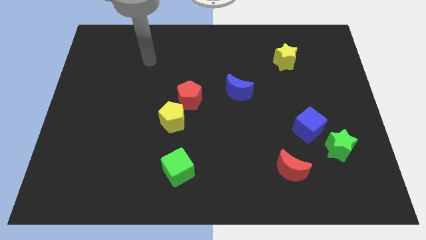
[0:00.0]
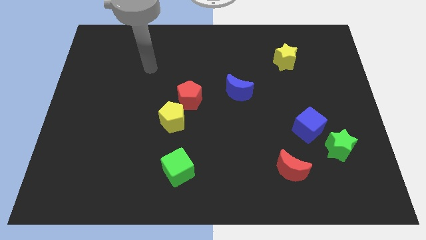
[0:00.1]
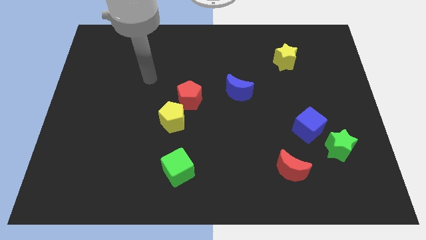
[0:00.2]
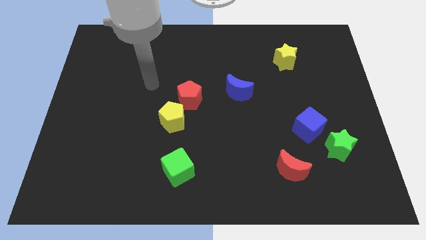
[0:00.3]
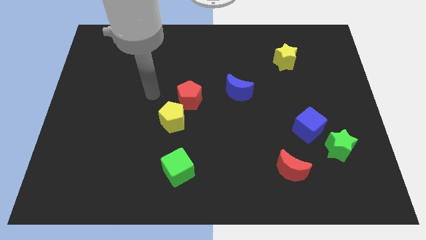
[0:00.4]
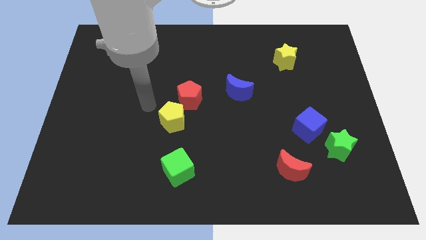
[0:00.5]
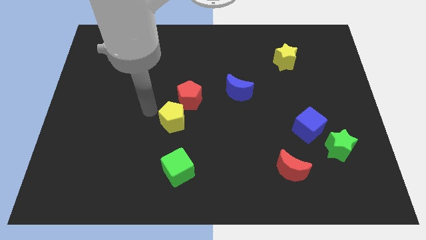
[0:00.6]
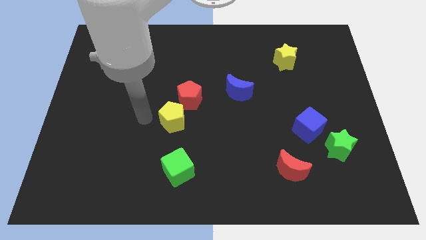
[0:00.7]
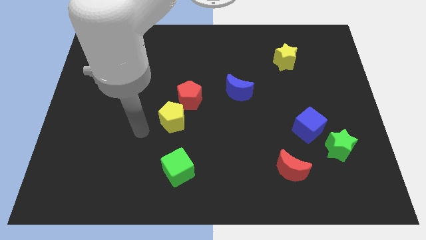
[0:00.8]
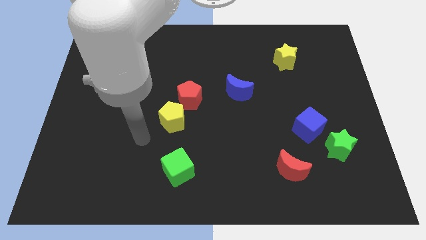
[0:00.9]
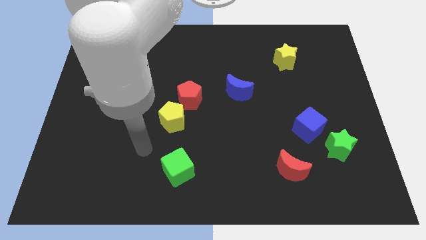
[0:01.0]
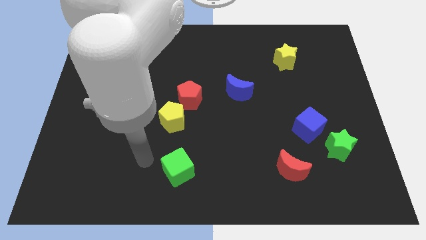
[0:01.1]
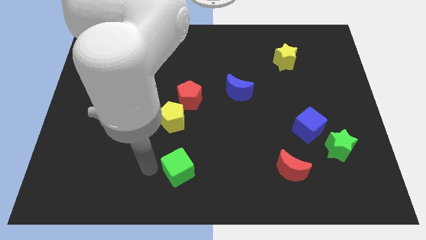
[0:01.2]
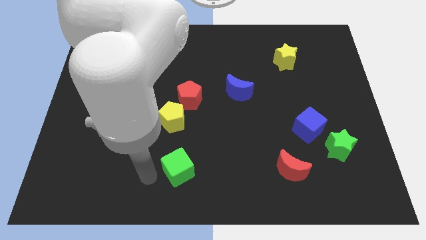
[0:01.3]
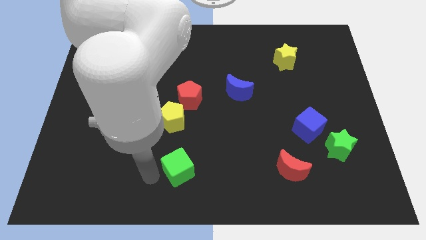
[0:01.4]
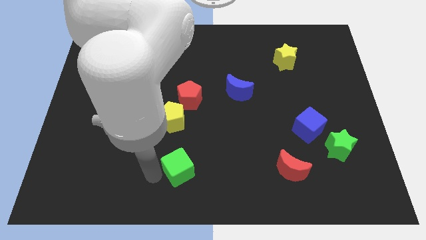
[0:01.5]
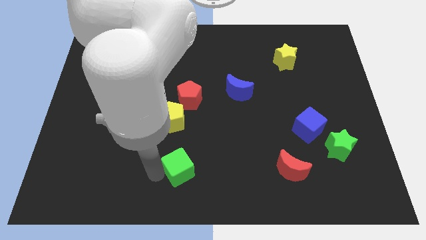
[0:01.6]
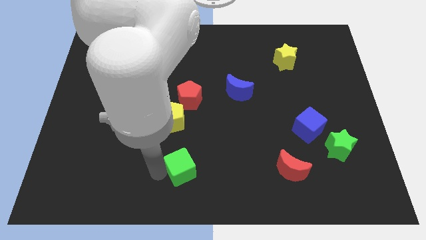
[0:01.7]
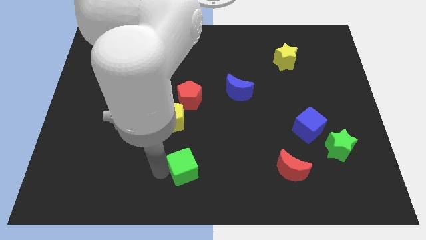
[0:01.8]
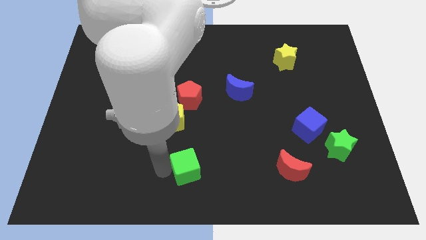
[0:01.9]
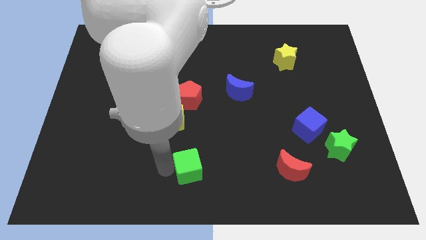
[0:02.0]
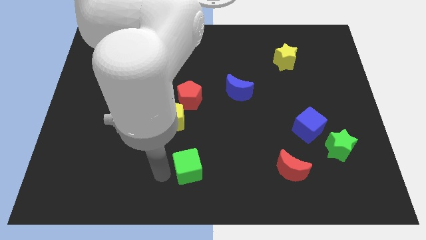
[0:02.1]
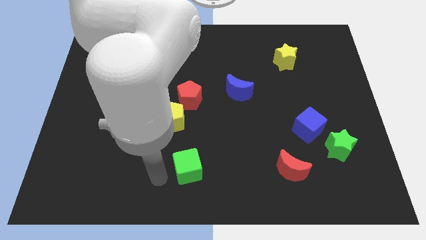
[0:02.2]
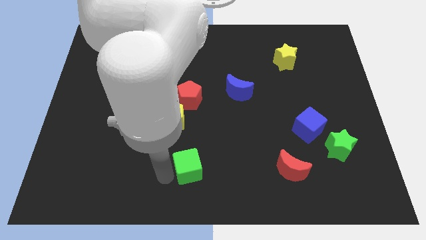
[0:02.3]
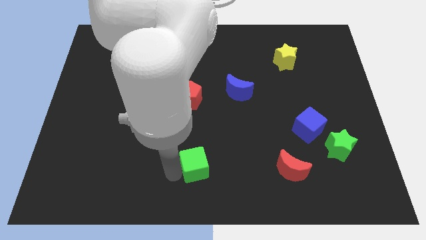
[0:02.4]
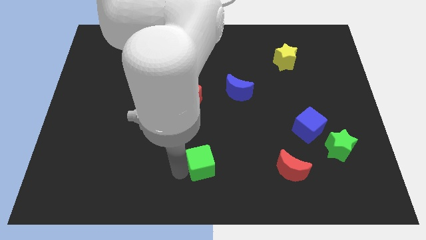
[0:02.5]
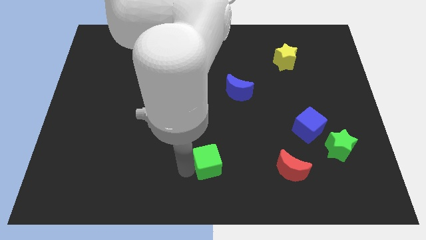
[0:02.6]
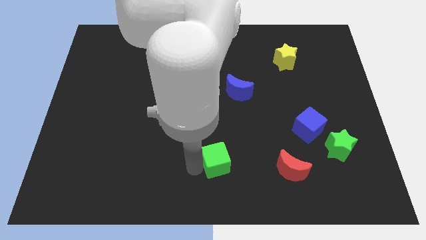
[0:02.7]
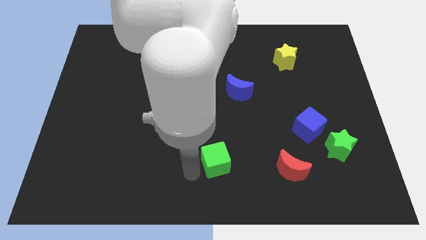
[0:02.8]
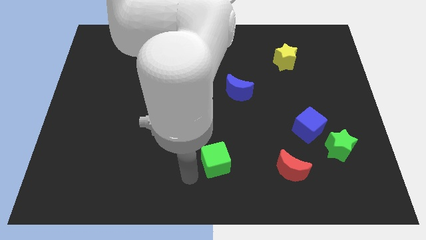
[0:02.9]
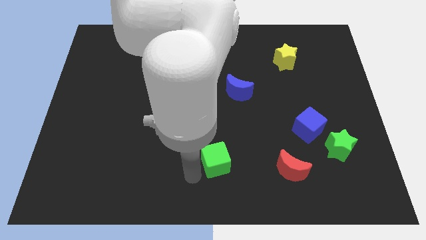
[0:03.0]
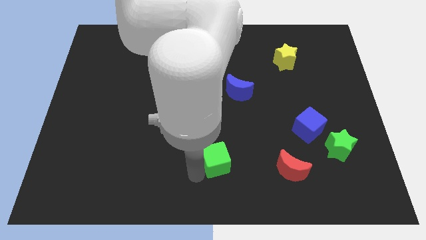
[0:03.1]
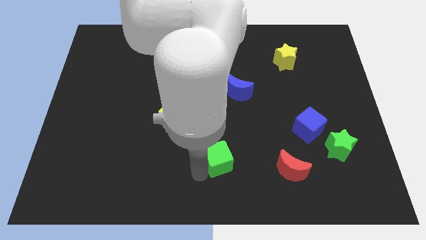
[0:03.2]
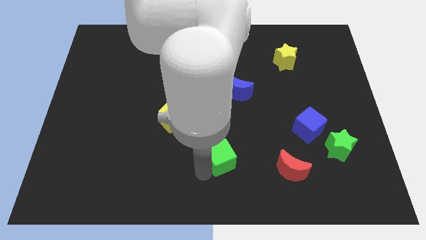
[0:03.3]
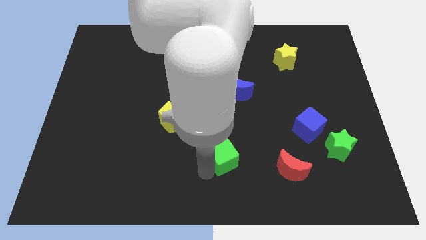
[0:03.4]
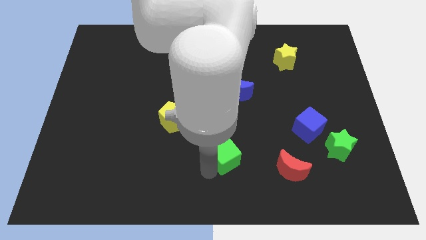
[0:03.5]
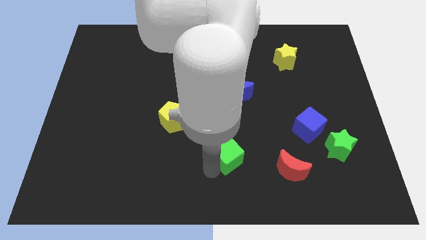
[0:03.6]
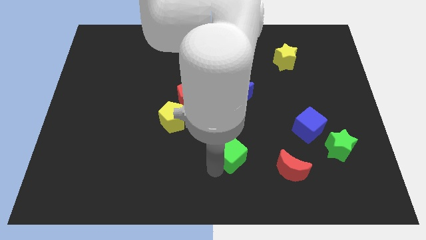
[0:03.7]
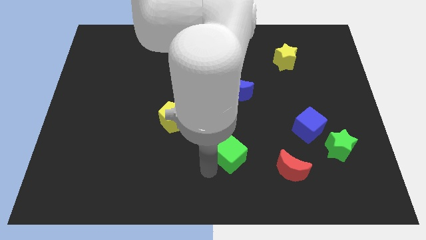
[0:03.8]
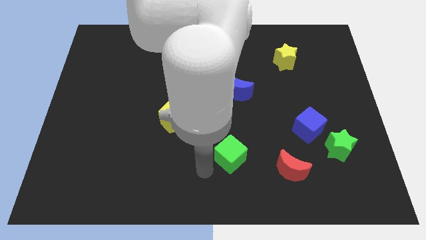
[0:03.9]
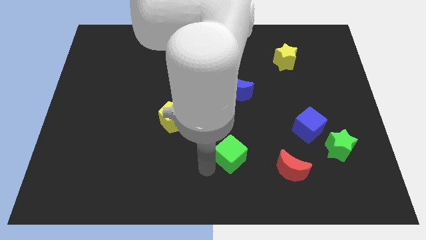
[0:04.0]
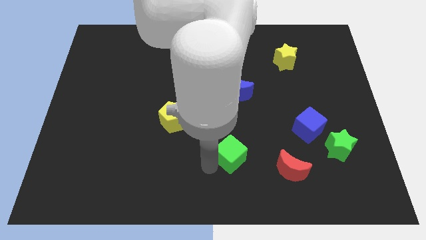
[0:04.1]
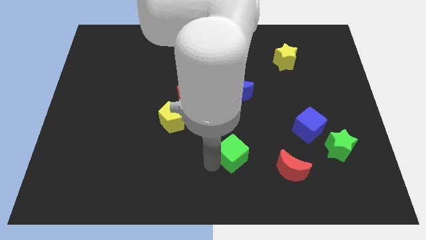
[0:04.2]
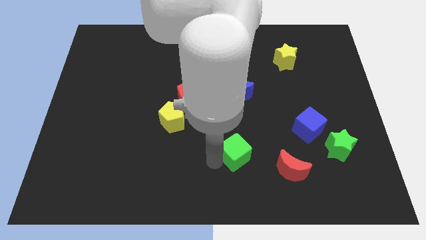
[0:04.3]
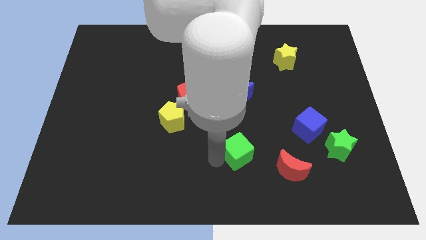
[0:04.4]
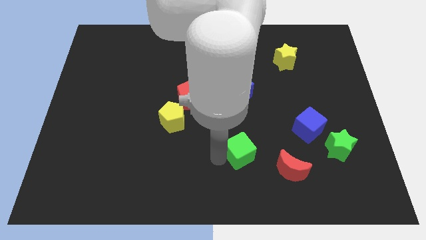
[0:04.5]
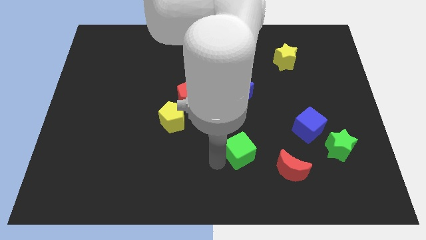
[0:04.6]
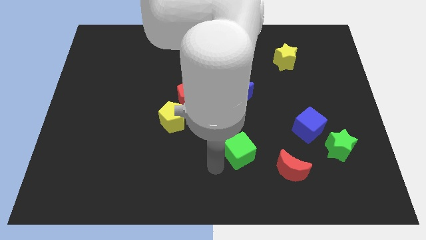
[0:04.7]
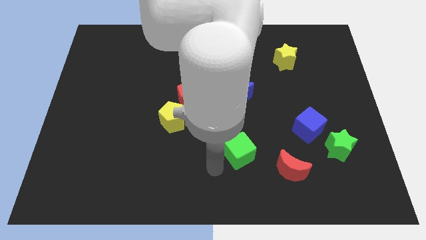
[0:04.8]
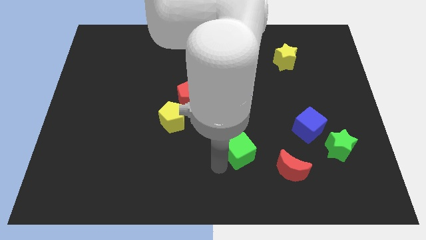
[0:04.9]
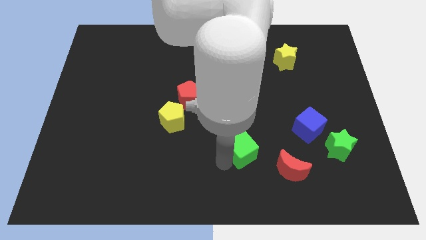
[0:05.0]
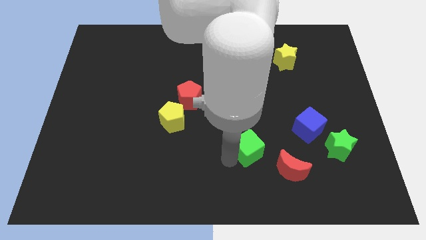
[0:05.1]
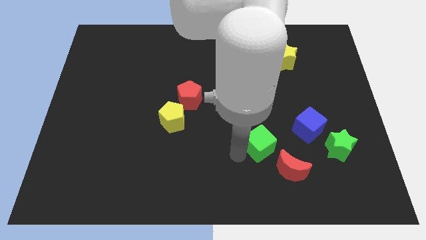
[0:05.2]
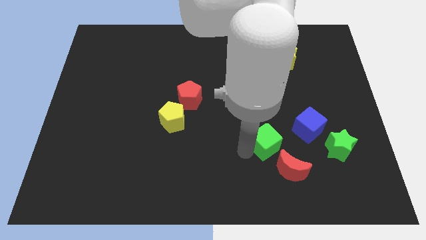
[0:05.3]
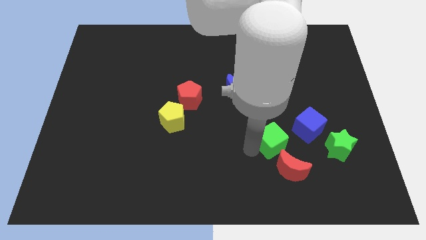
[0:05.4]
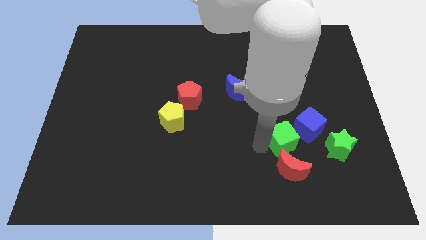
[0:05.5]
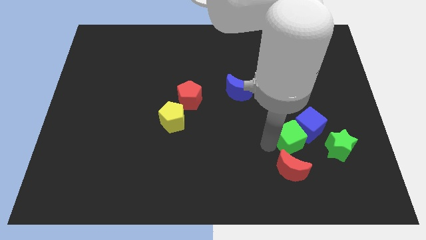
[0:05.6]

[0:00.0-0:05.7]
slide the green cube towards the blue cube

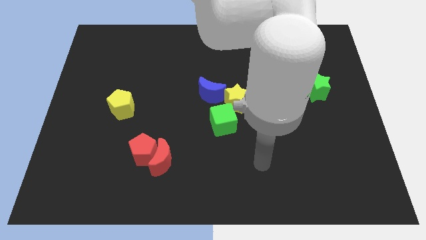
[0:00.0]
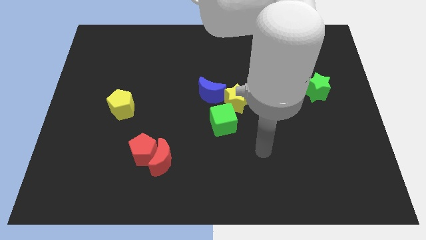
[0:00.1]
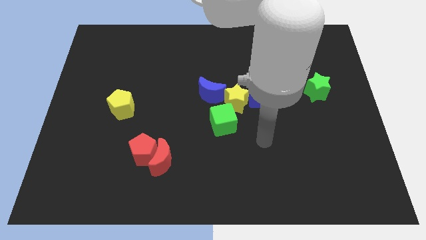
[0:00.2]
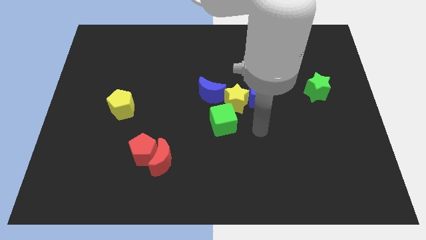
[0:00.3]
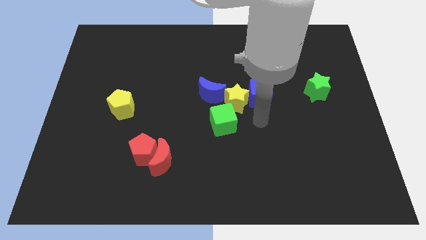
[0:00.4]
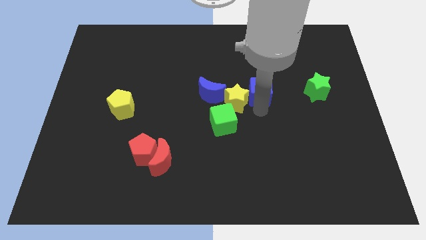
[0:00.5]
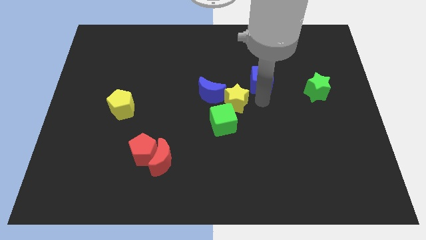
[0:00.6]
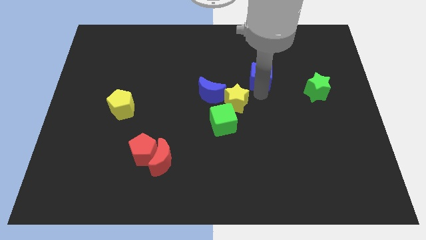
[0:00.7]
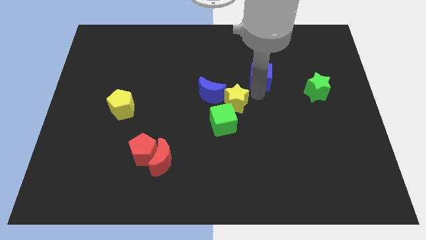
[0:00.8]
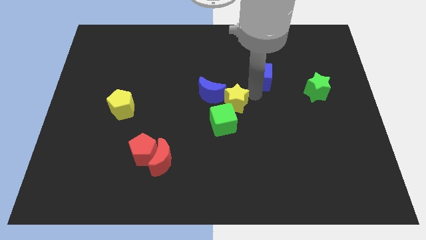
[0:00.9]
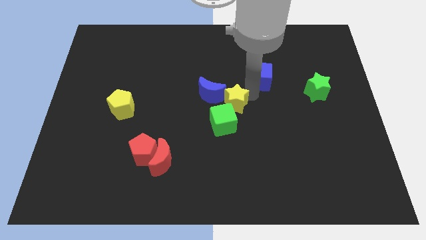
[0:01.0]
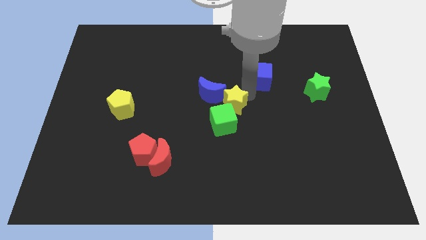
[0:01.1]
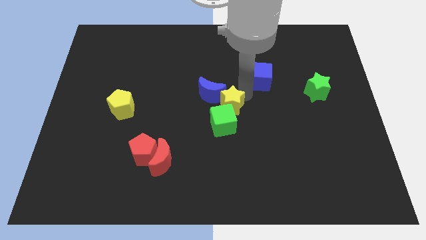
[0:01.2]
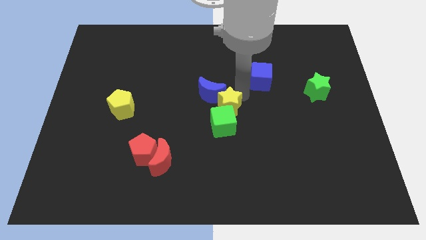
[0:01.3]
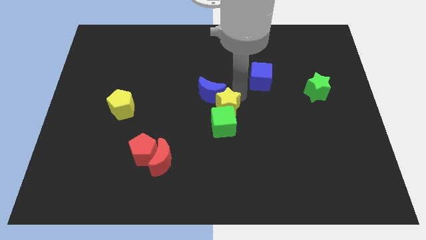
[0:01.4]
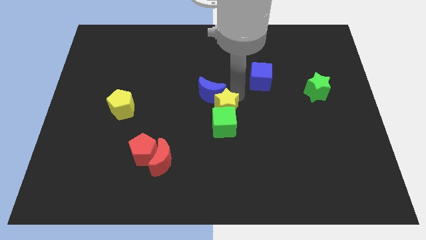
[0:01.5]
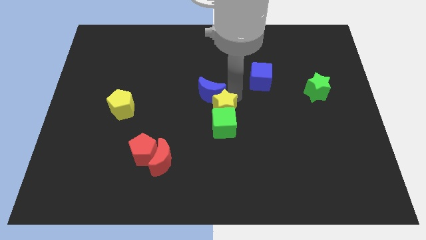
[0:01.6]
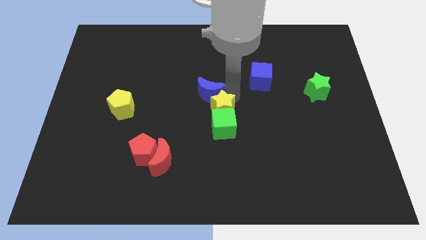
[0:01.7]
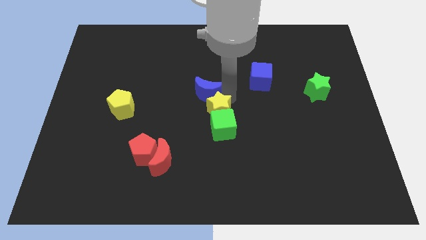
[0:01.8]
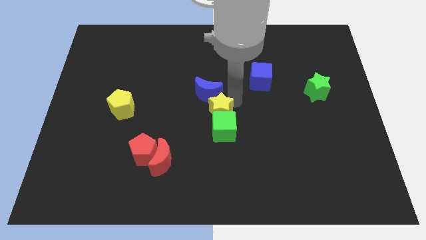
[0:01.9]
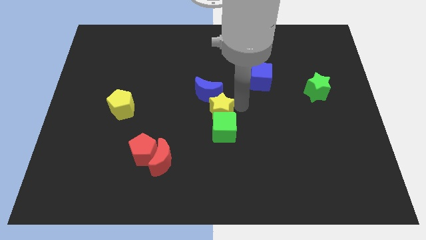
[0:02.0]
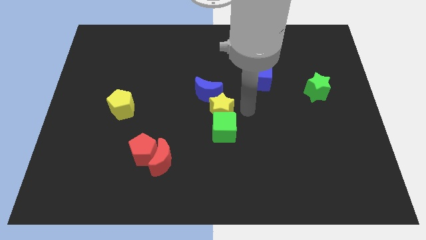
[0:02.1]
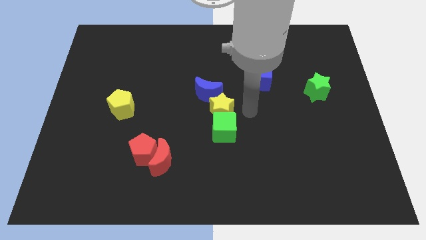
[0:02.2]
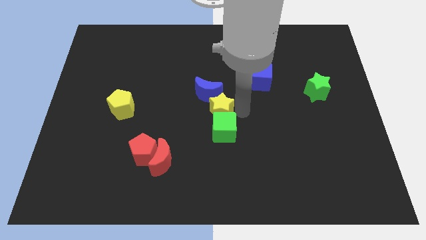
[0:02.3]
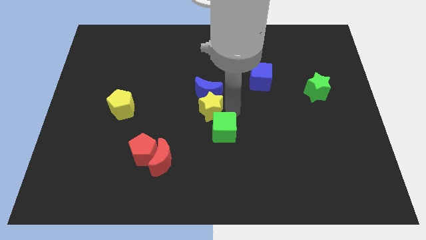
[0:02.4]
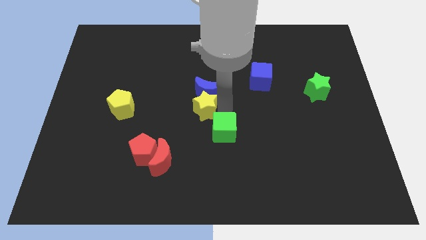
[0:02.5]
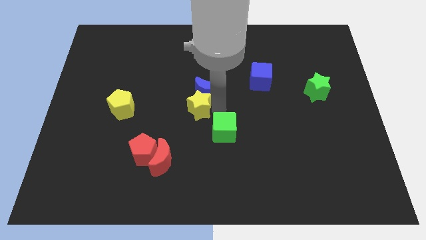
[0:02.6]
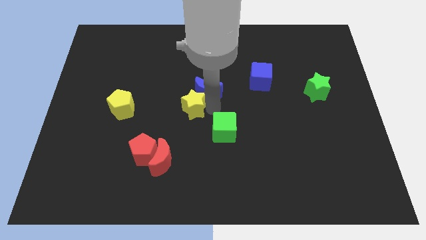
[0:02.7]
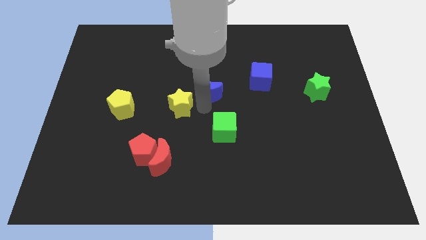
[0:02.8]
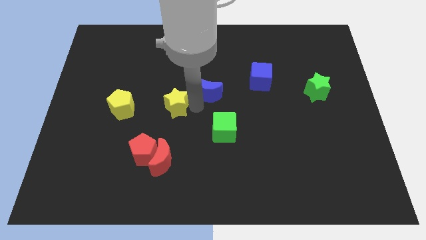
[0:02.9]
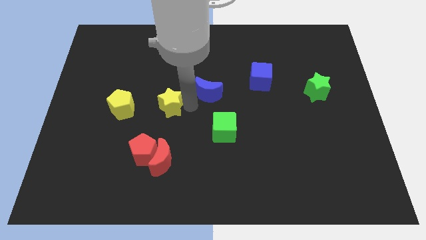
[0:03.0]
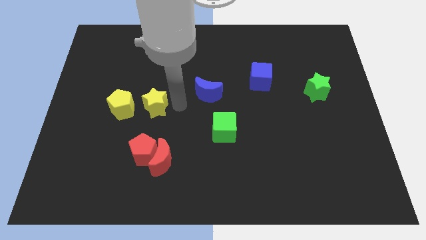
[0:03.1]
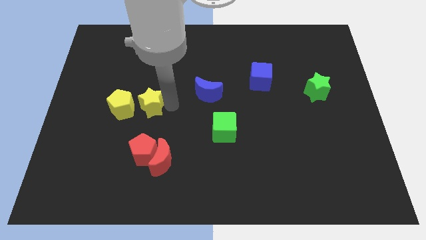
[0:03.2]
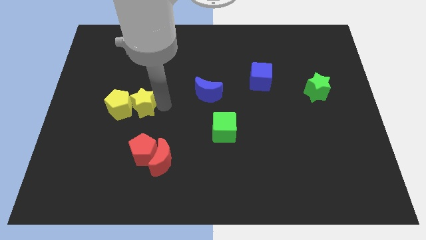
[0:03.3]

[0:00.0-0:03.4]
move the yellow star towards the yellow pentagon
